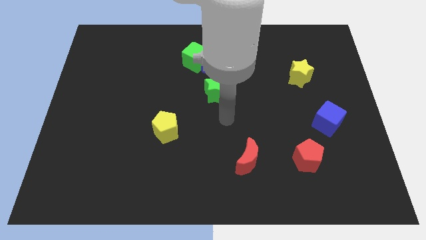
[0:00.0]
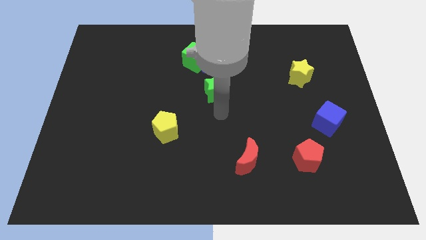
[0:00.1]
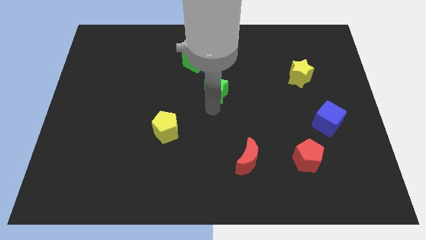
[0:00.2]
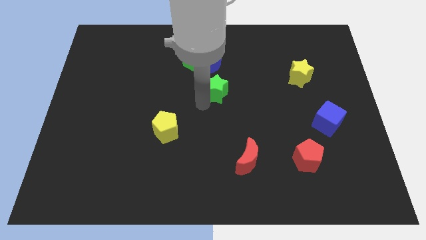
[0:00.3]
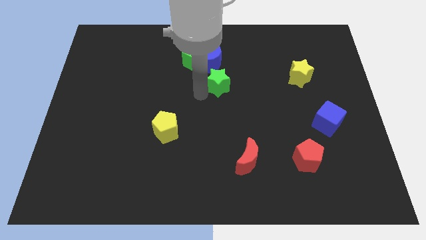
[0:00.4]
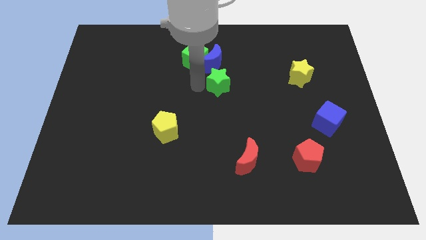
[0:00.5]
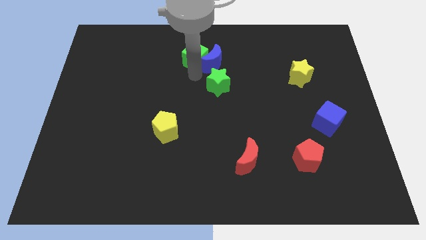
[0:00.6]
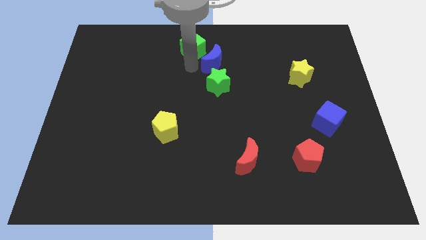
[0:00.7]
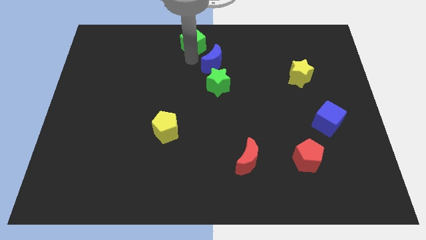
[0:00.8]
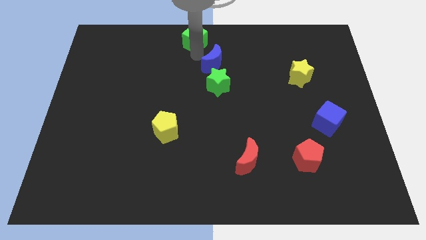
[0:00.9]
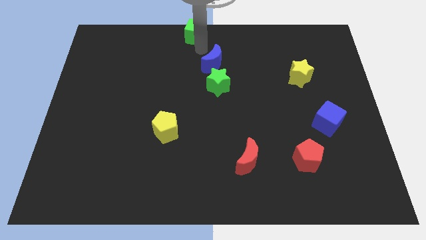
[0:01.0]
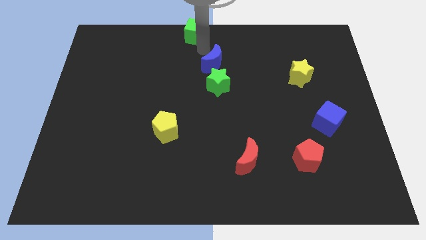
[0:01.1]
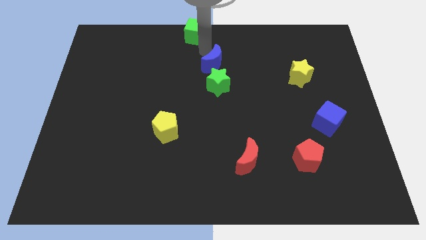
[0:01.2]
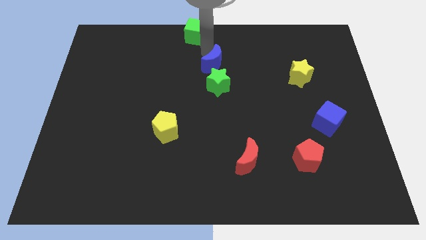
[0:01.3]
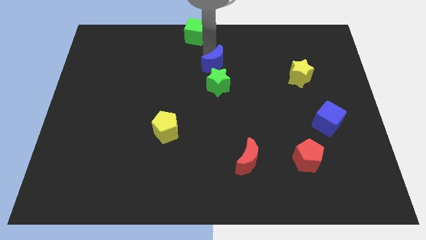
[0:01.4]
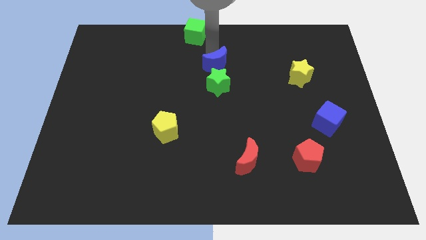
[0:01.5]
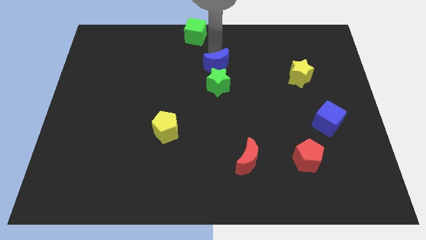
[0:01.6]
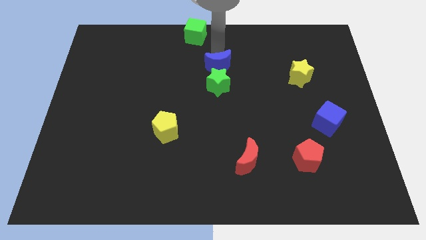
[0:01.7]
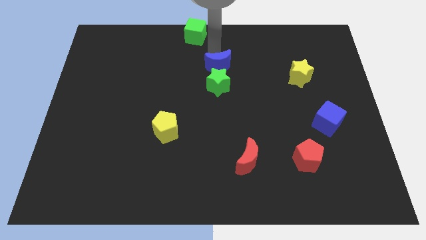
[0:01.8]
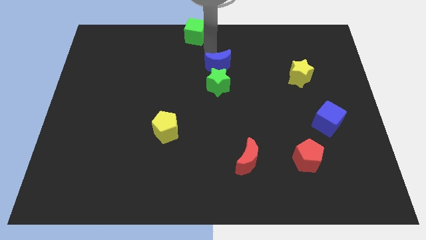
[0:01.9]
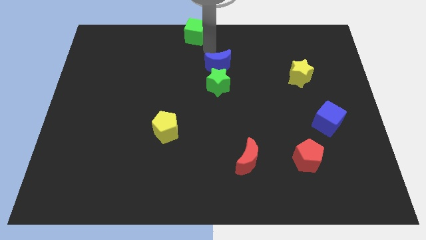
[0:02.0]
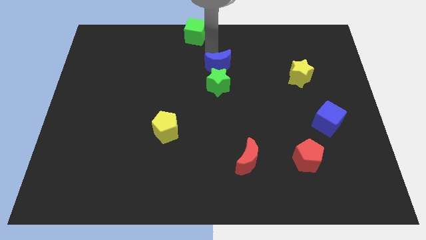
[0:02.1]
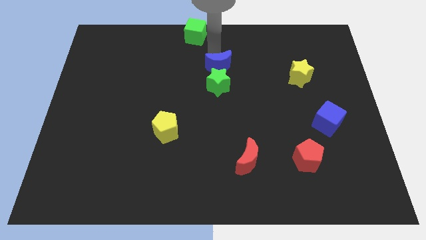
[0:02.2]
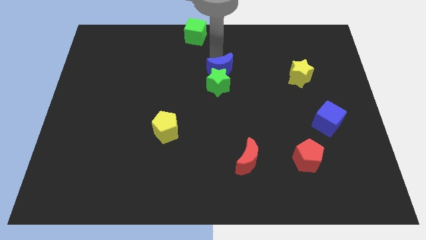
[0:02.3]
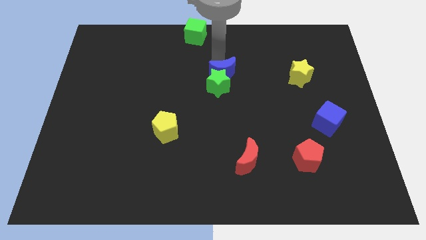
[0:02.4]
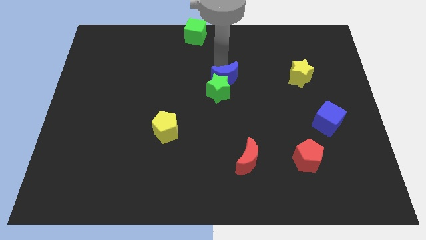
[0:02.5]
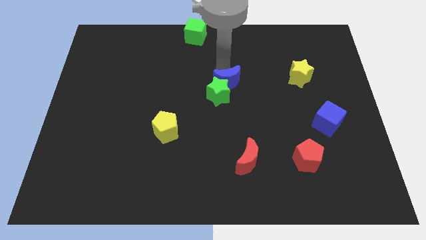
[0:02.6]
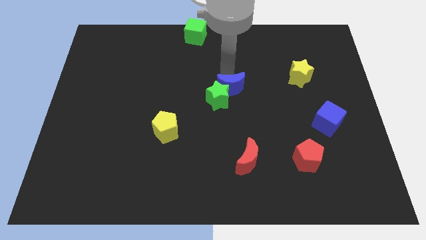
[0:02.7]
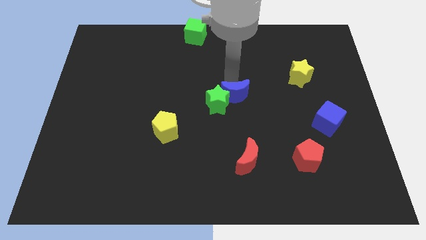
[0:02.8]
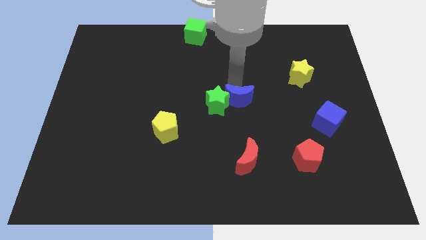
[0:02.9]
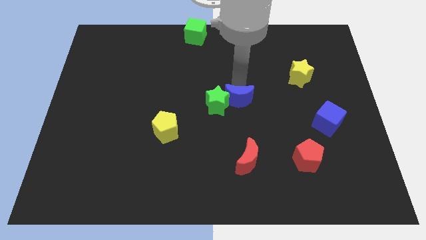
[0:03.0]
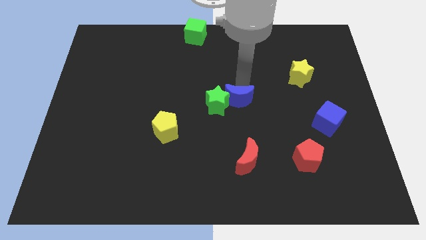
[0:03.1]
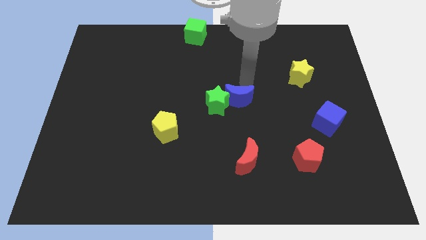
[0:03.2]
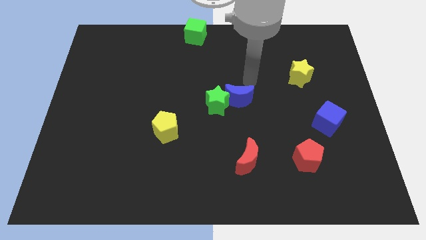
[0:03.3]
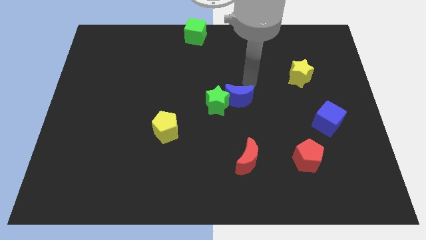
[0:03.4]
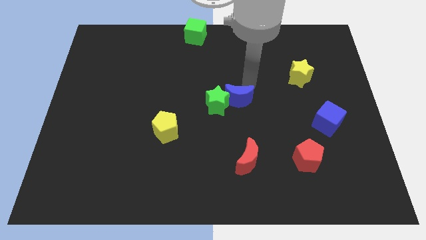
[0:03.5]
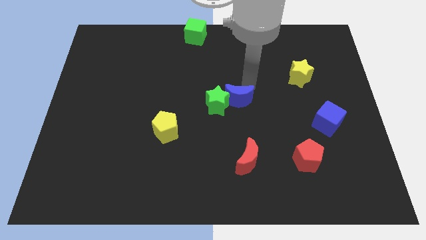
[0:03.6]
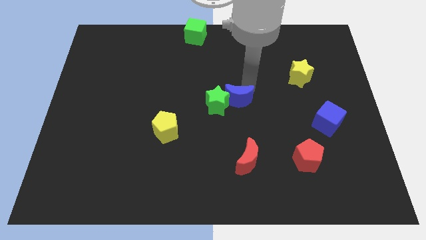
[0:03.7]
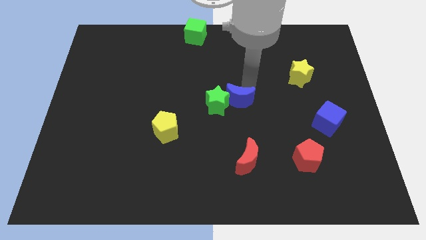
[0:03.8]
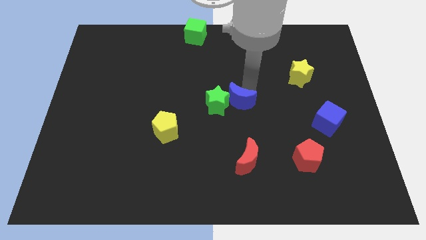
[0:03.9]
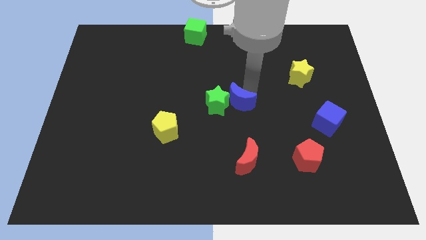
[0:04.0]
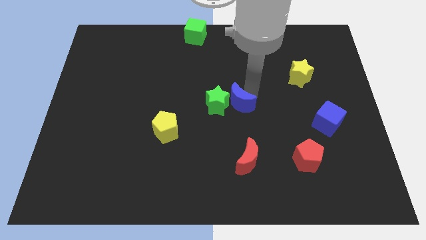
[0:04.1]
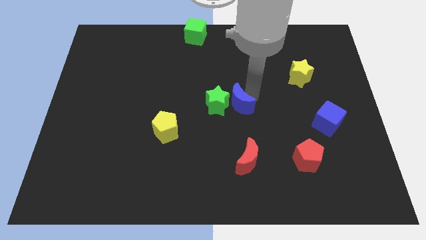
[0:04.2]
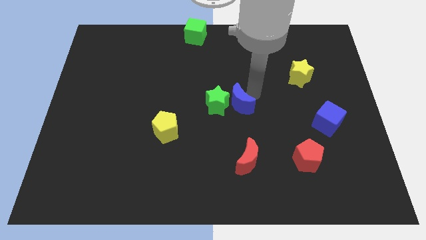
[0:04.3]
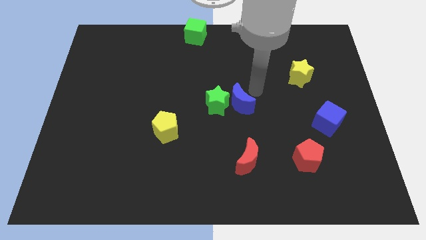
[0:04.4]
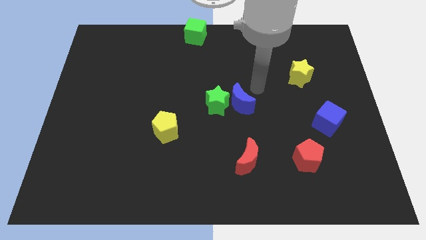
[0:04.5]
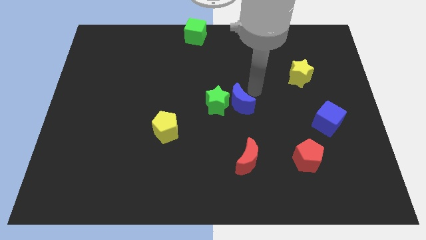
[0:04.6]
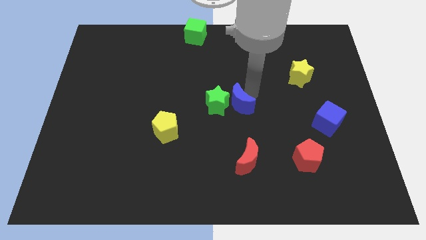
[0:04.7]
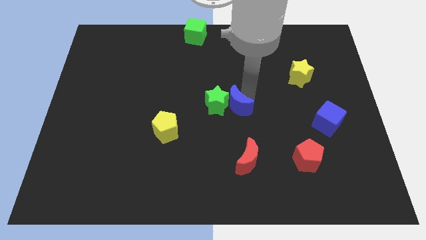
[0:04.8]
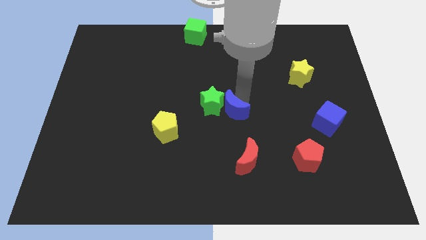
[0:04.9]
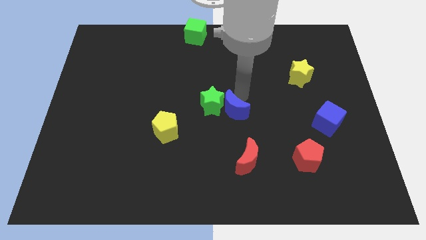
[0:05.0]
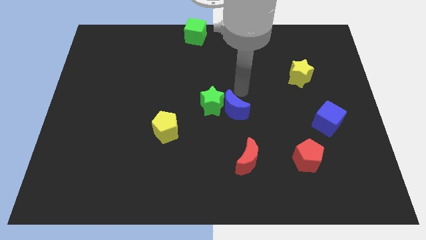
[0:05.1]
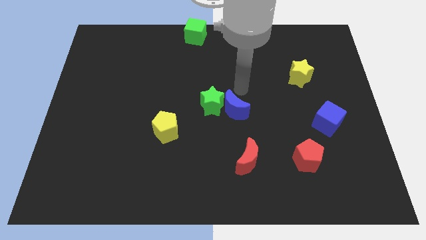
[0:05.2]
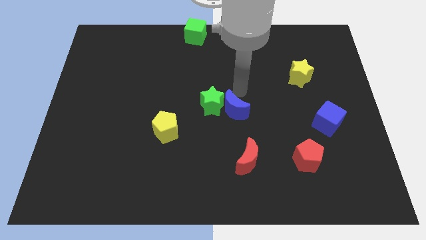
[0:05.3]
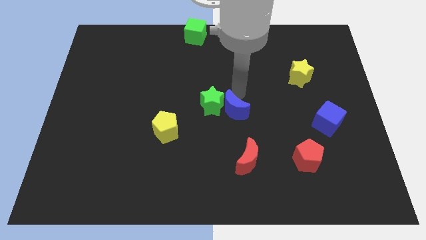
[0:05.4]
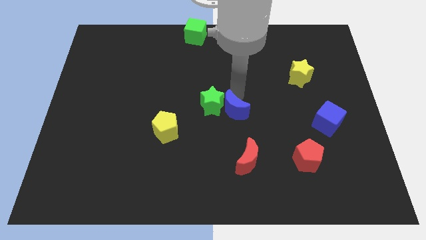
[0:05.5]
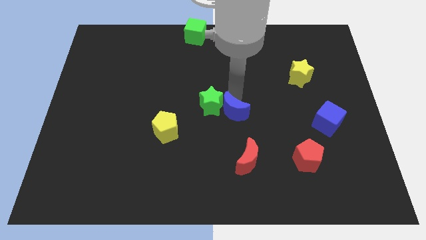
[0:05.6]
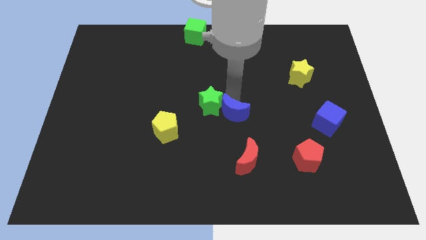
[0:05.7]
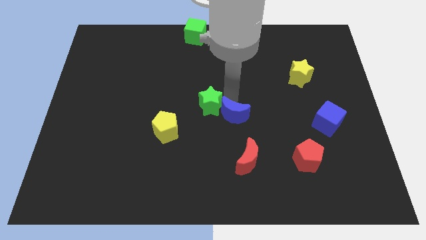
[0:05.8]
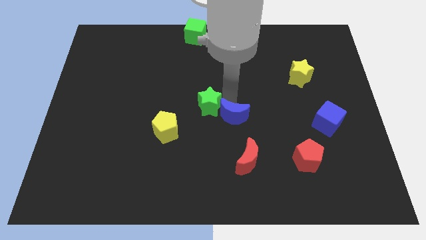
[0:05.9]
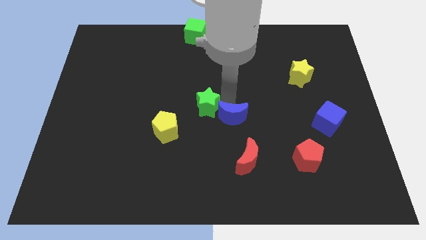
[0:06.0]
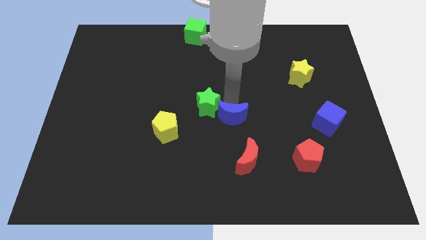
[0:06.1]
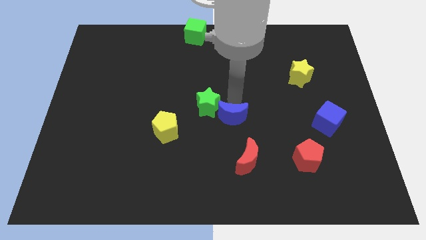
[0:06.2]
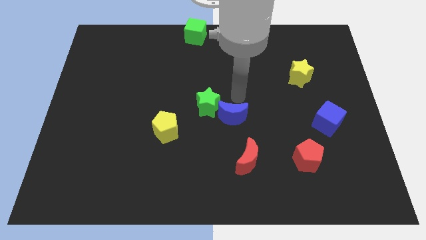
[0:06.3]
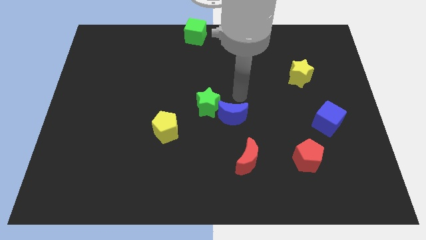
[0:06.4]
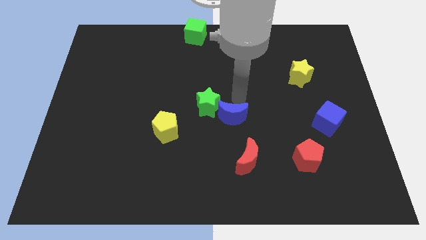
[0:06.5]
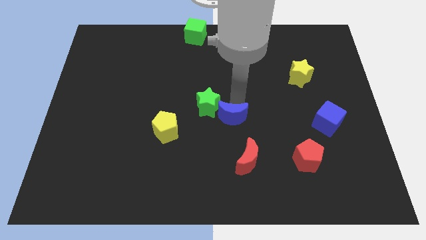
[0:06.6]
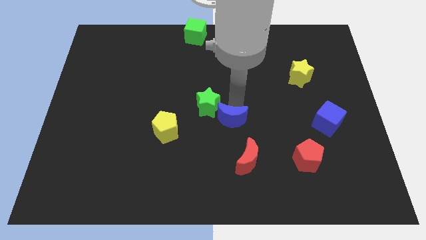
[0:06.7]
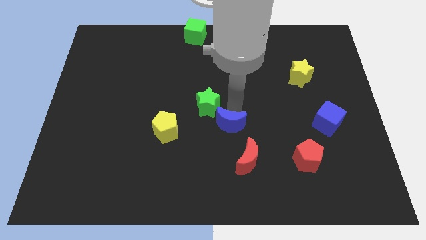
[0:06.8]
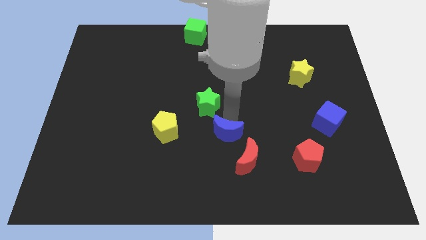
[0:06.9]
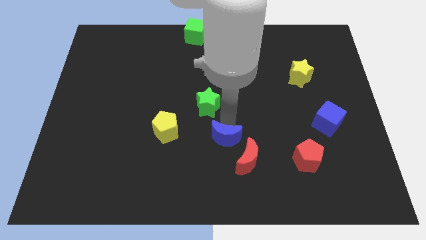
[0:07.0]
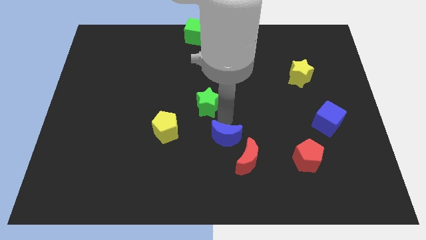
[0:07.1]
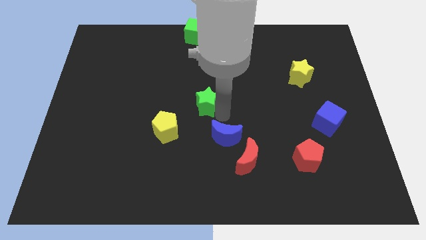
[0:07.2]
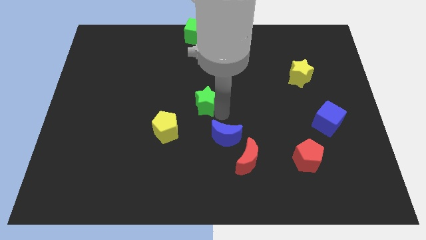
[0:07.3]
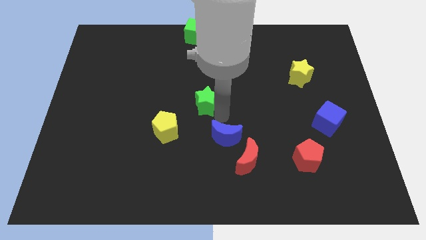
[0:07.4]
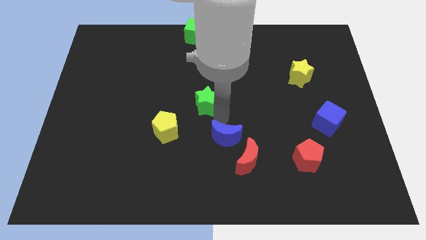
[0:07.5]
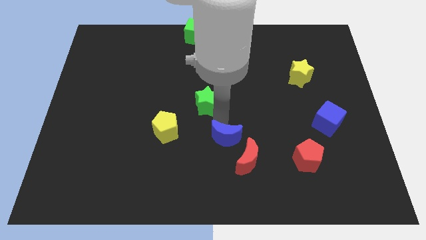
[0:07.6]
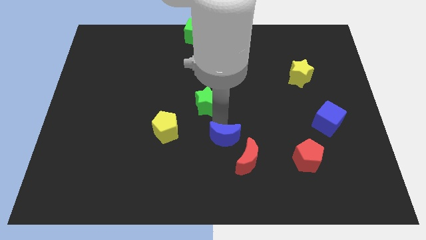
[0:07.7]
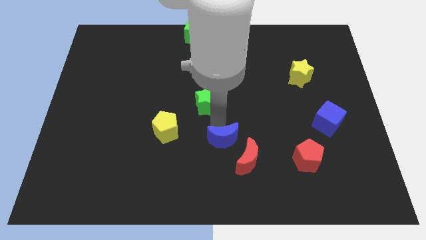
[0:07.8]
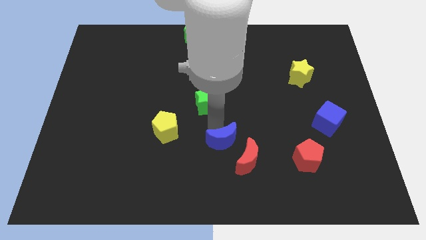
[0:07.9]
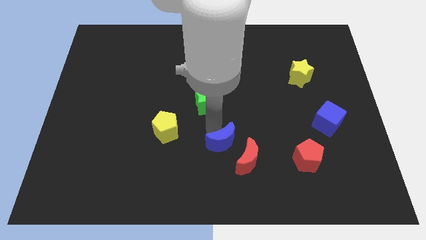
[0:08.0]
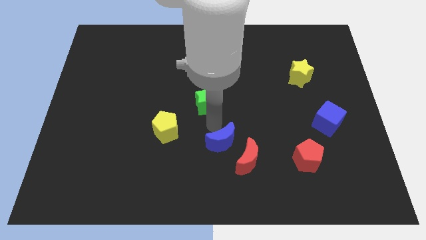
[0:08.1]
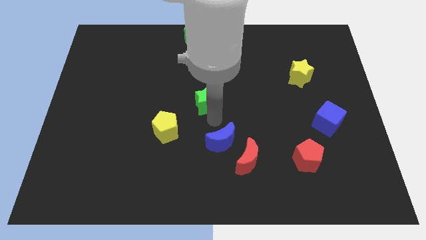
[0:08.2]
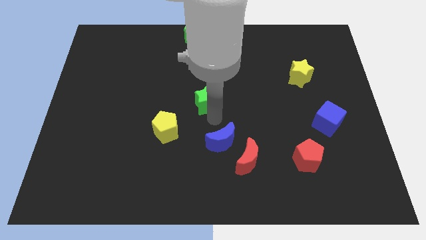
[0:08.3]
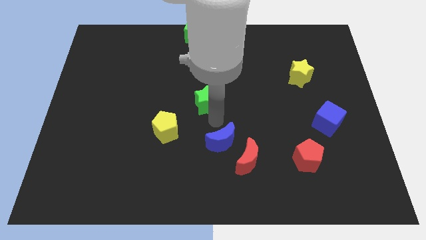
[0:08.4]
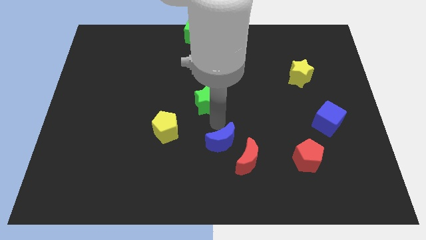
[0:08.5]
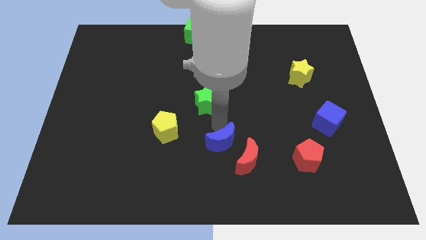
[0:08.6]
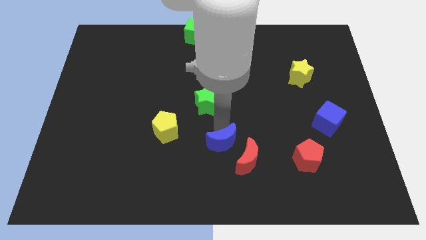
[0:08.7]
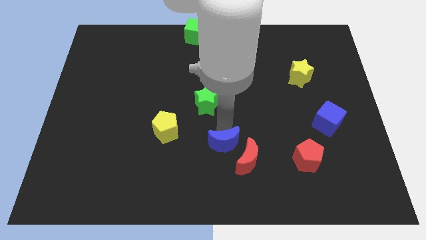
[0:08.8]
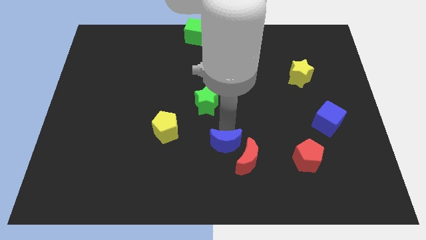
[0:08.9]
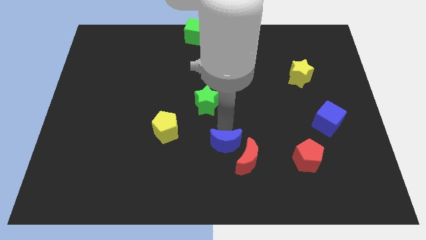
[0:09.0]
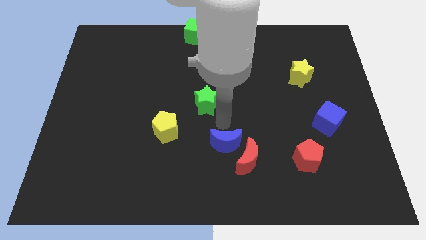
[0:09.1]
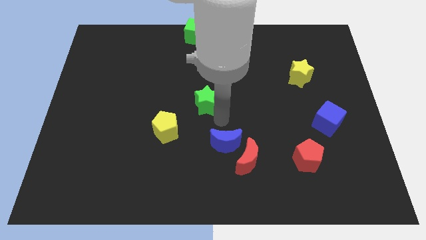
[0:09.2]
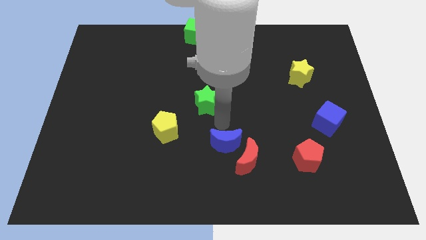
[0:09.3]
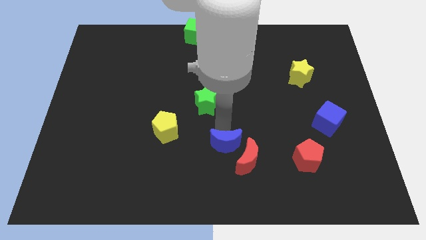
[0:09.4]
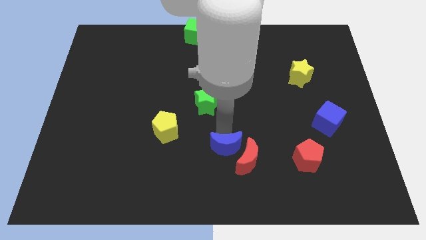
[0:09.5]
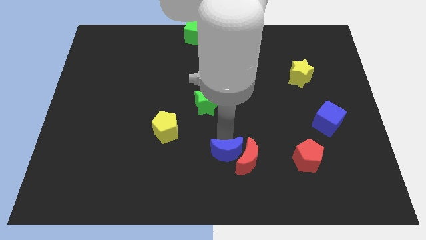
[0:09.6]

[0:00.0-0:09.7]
move the blue moon to the bottom left side of the red moon
